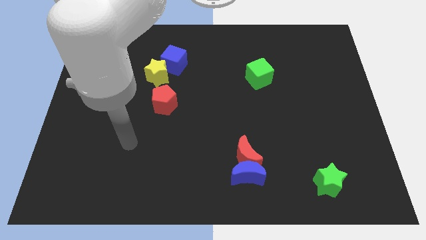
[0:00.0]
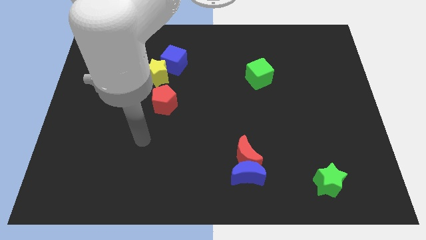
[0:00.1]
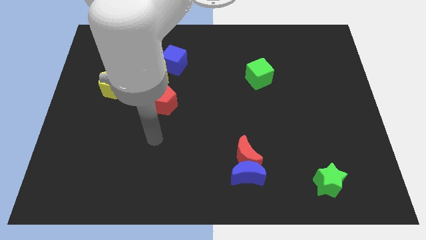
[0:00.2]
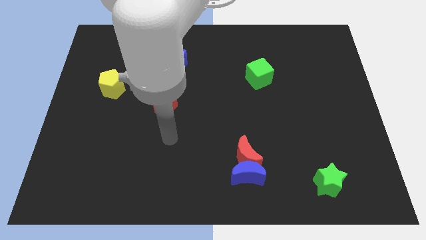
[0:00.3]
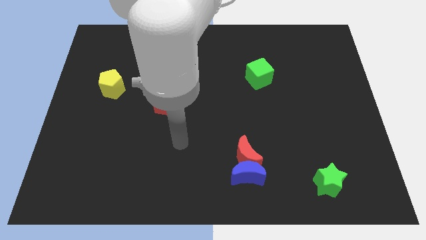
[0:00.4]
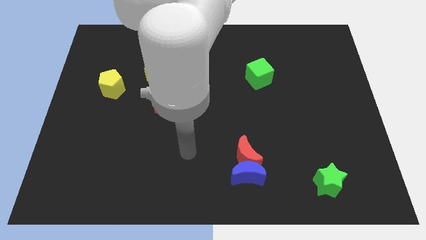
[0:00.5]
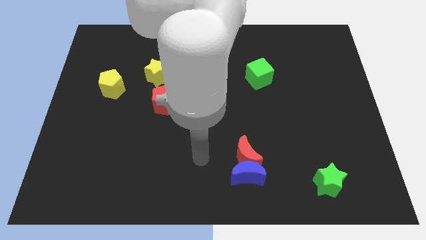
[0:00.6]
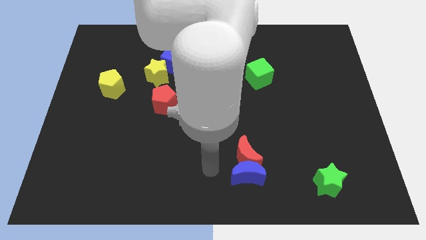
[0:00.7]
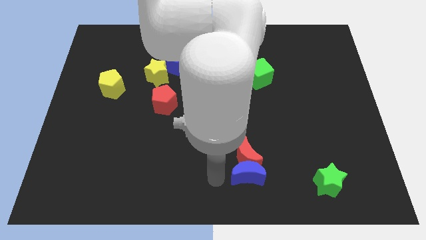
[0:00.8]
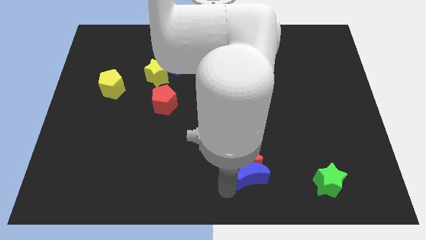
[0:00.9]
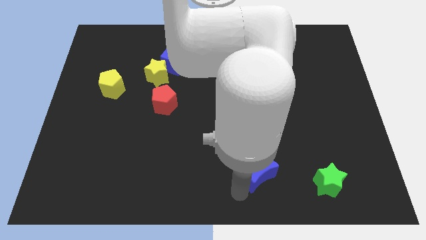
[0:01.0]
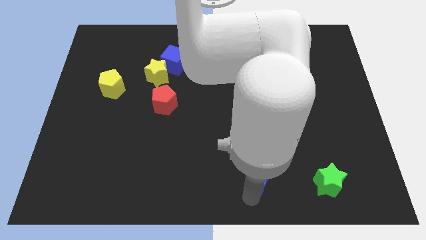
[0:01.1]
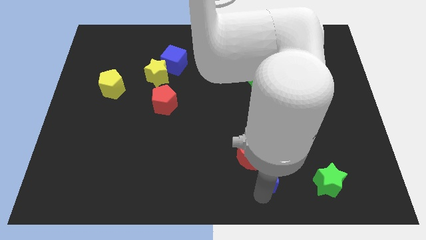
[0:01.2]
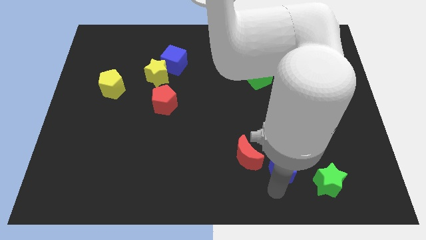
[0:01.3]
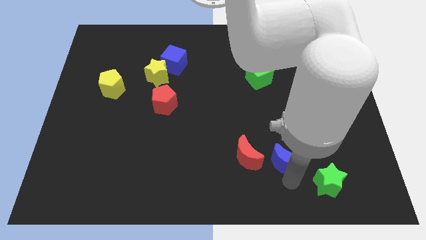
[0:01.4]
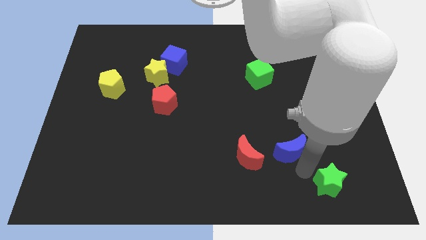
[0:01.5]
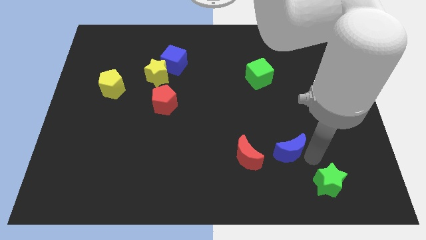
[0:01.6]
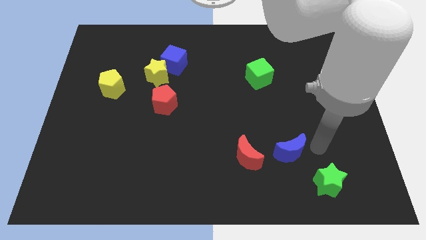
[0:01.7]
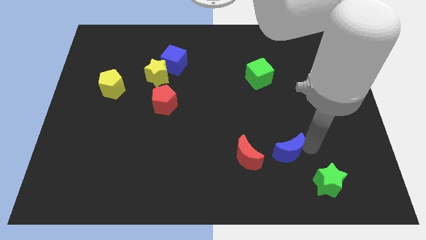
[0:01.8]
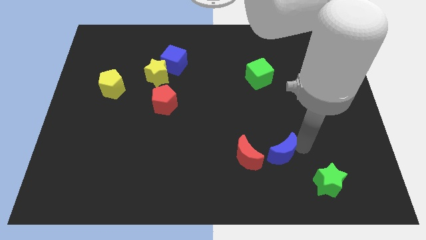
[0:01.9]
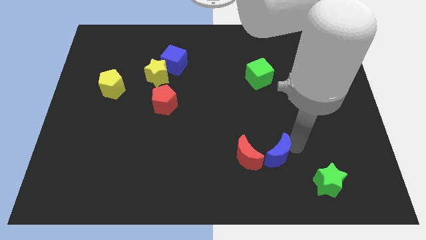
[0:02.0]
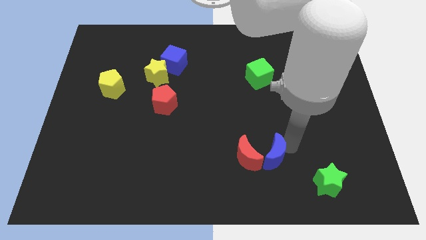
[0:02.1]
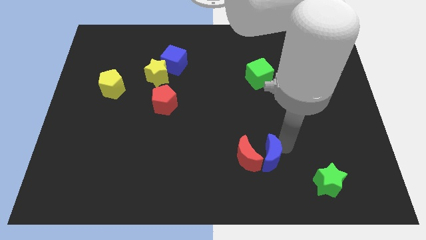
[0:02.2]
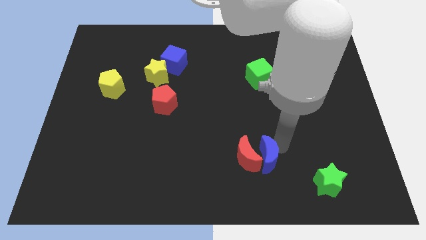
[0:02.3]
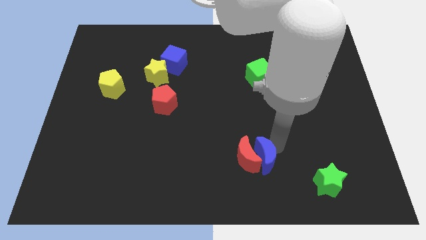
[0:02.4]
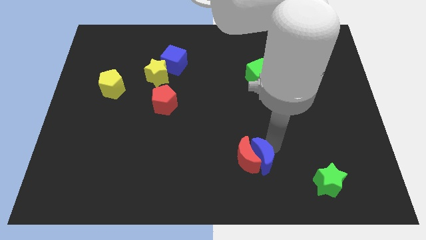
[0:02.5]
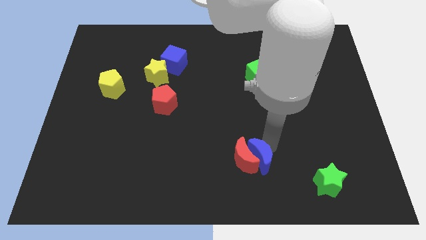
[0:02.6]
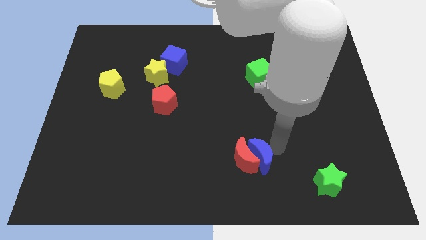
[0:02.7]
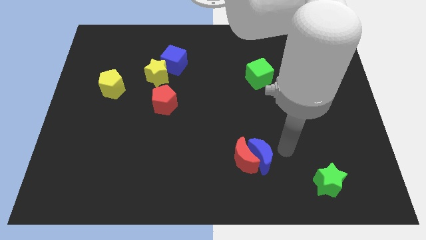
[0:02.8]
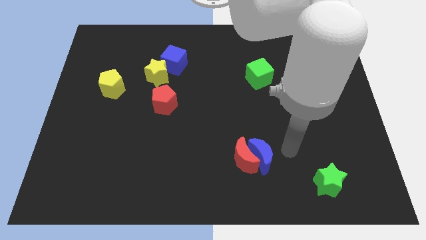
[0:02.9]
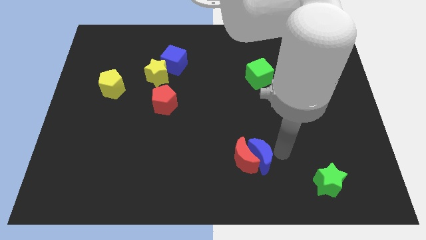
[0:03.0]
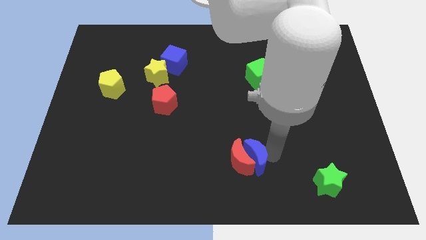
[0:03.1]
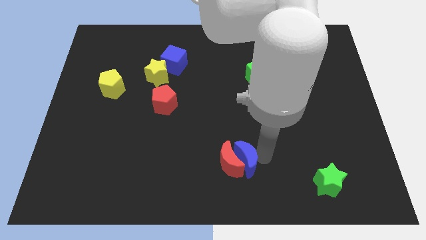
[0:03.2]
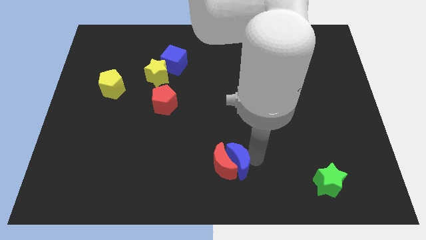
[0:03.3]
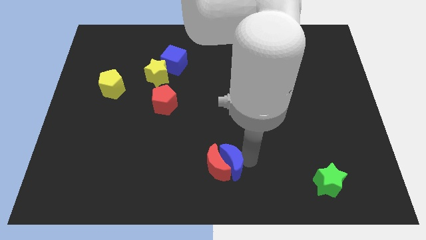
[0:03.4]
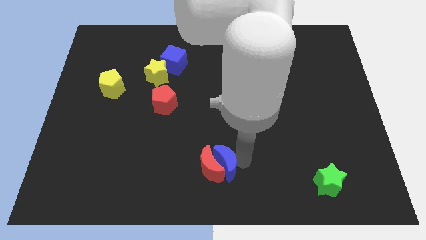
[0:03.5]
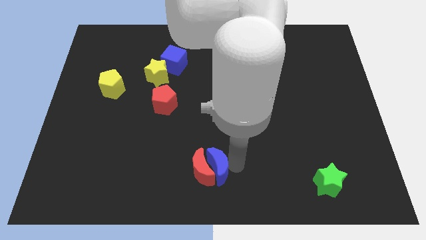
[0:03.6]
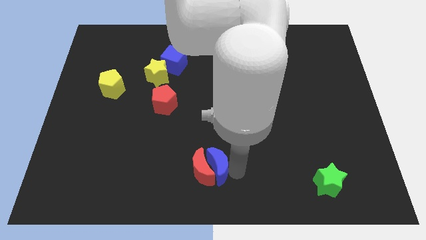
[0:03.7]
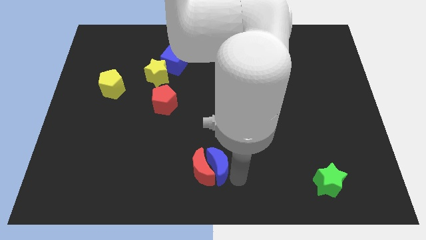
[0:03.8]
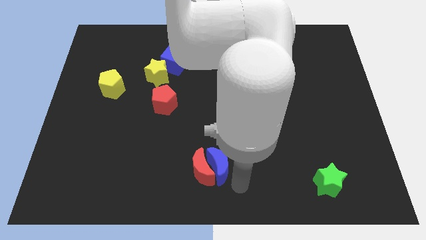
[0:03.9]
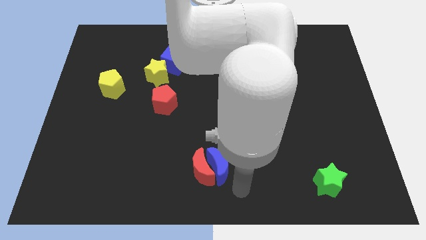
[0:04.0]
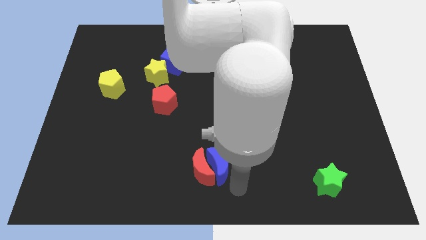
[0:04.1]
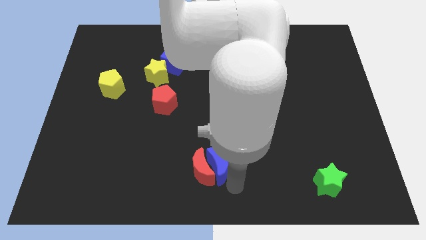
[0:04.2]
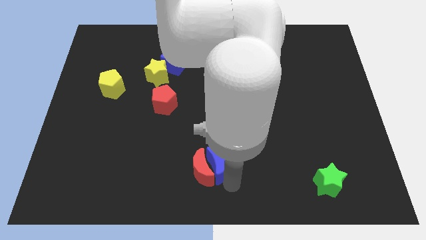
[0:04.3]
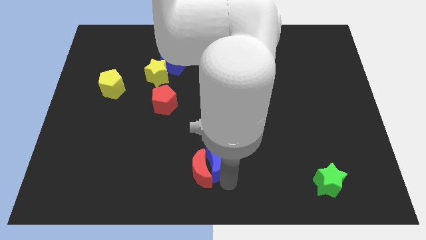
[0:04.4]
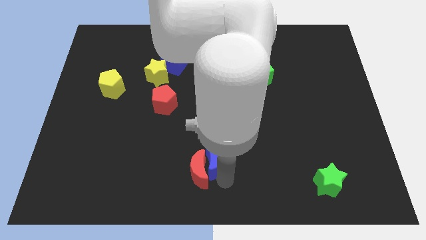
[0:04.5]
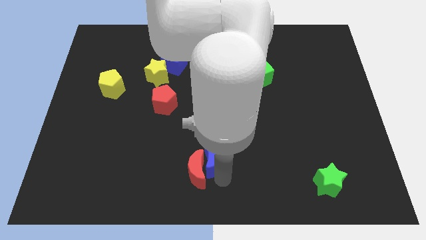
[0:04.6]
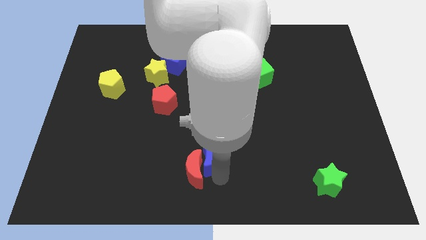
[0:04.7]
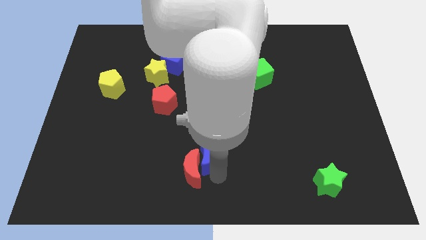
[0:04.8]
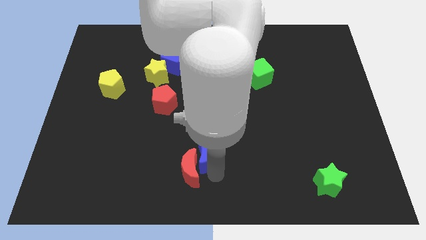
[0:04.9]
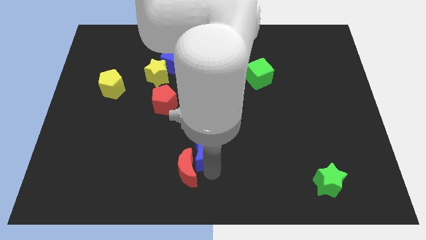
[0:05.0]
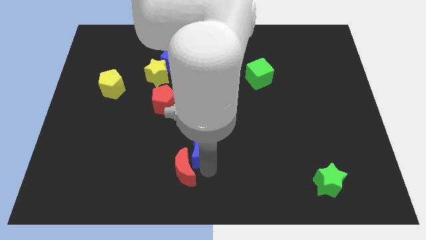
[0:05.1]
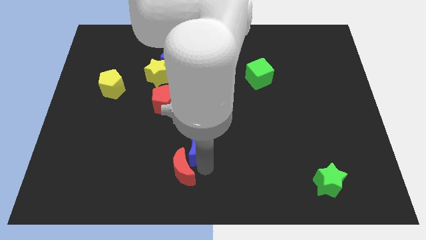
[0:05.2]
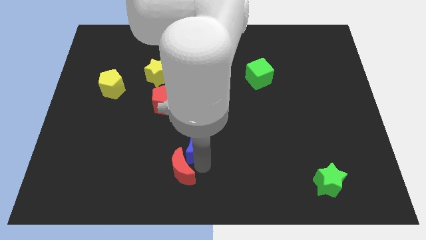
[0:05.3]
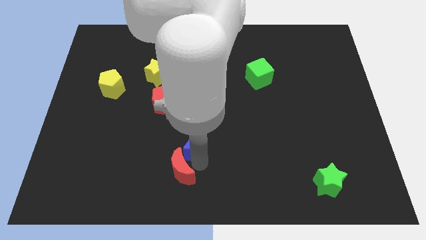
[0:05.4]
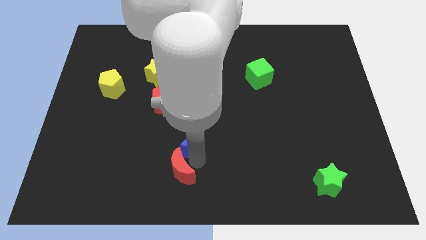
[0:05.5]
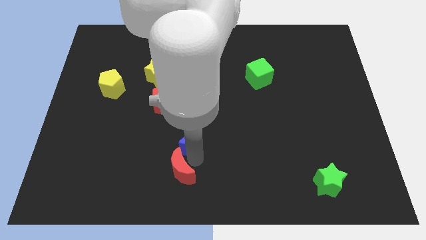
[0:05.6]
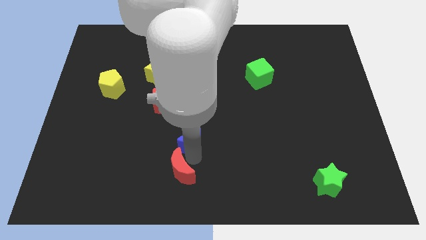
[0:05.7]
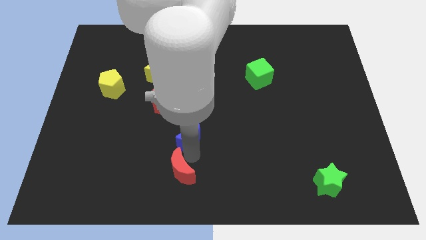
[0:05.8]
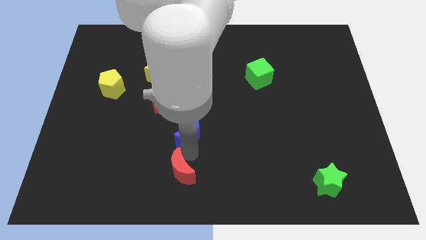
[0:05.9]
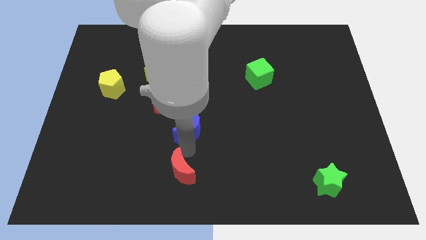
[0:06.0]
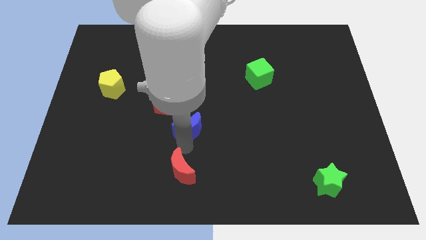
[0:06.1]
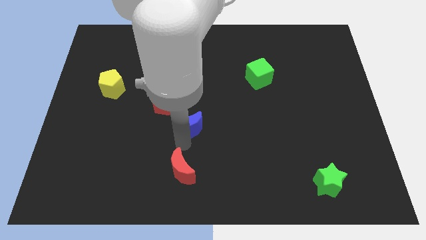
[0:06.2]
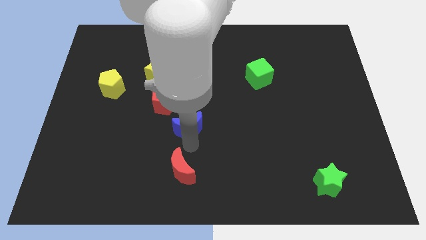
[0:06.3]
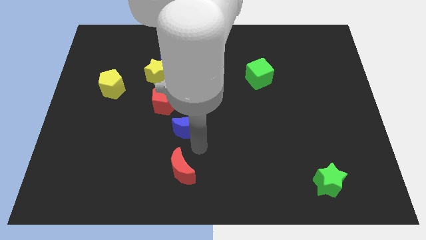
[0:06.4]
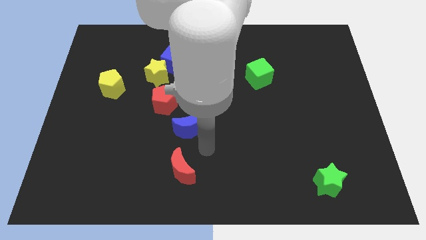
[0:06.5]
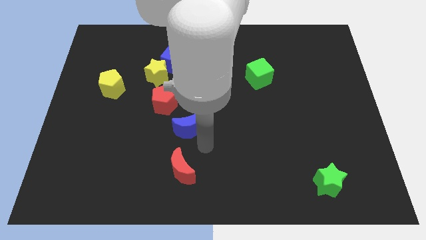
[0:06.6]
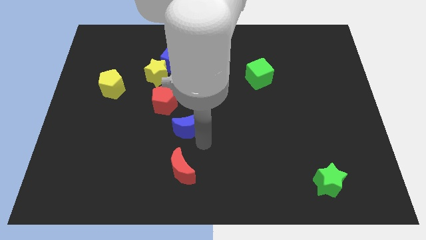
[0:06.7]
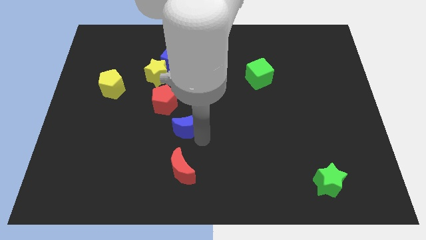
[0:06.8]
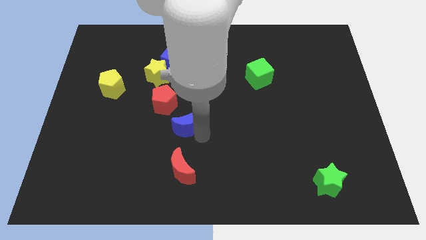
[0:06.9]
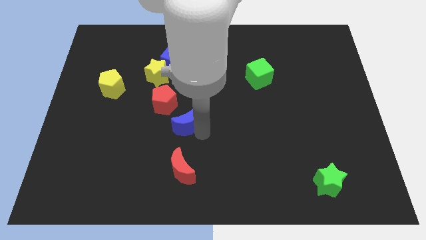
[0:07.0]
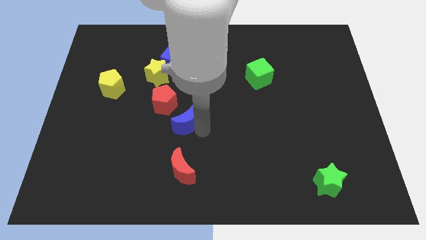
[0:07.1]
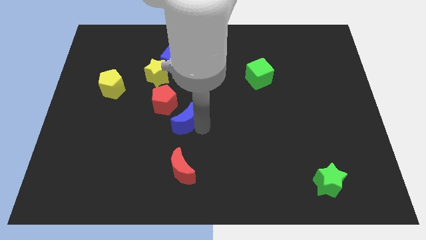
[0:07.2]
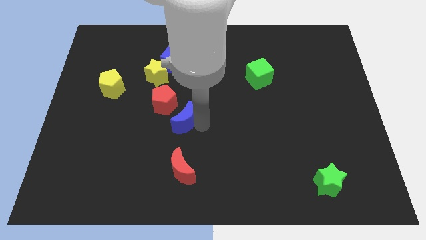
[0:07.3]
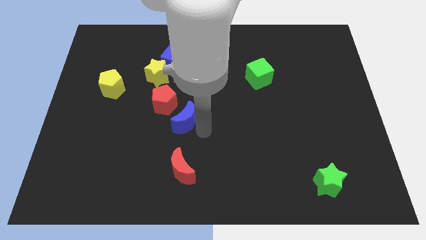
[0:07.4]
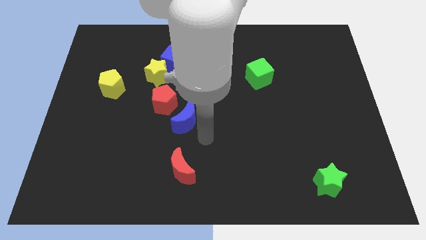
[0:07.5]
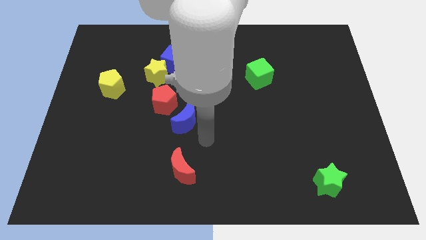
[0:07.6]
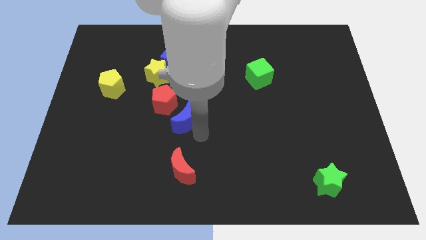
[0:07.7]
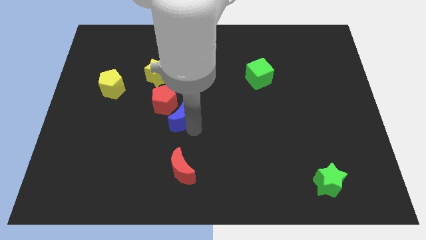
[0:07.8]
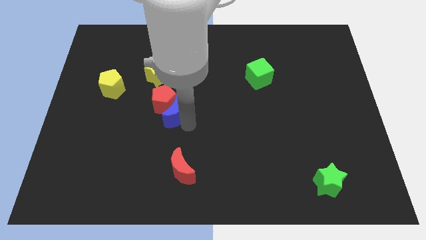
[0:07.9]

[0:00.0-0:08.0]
move the blue moon next to the red pentagon
